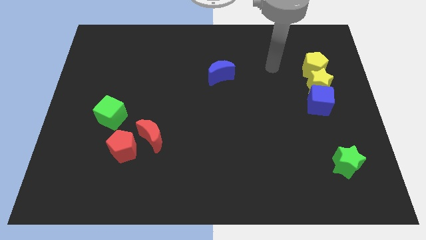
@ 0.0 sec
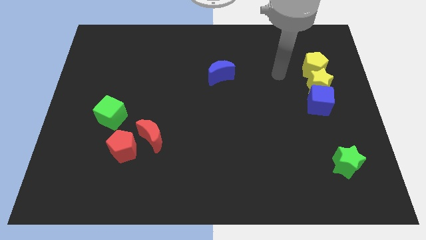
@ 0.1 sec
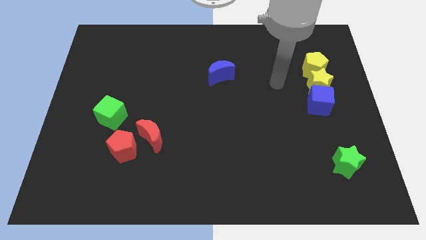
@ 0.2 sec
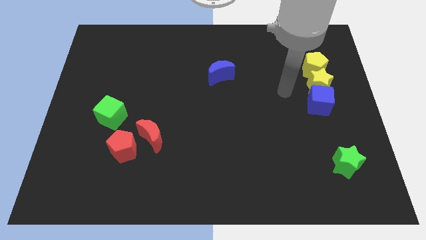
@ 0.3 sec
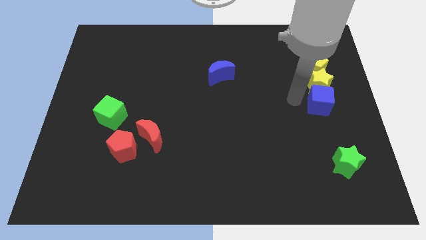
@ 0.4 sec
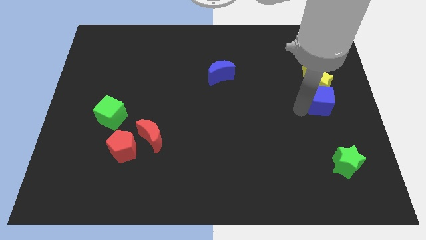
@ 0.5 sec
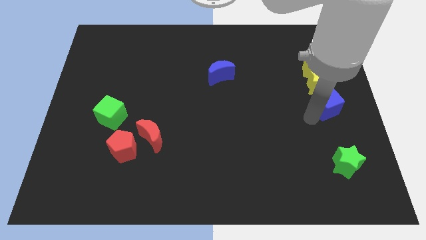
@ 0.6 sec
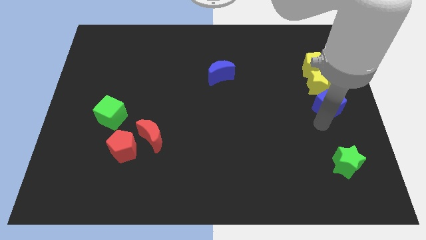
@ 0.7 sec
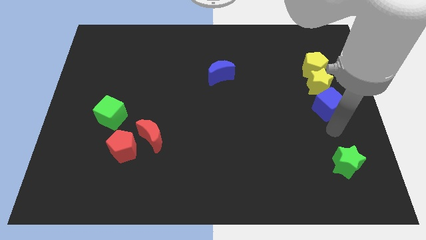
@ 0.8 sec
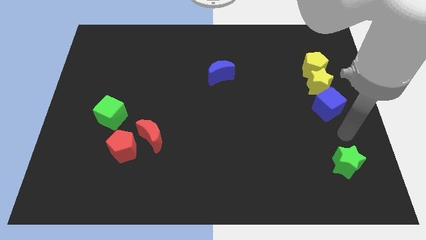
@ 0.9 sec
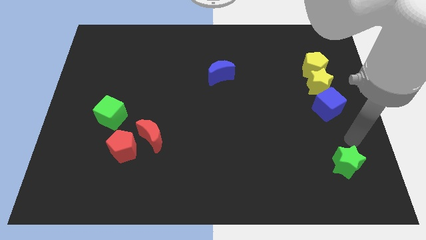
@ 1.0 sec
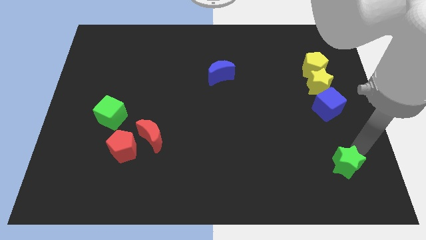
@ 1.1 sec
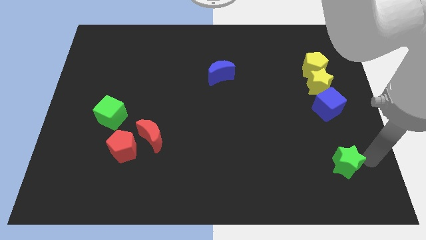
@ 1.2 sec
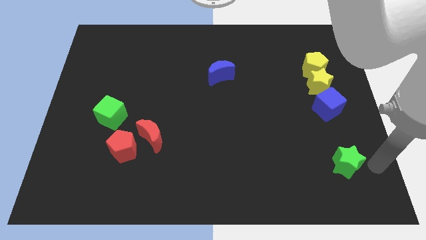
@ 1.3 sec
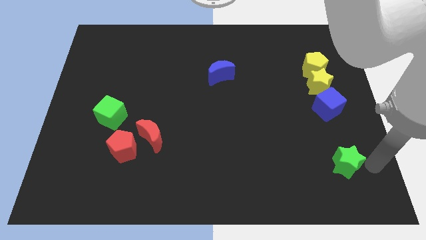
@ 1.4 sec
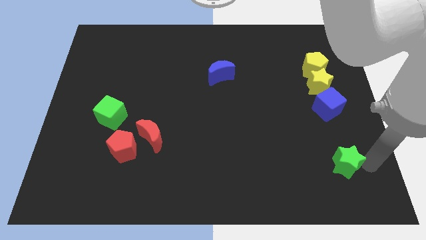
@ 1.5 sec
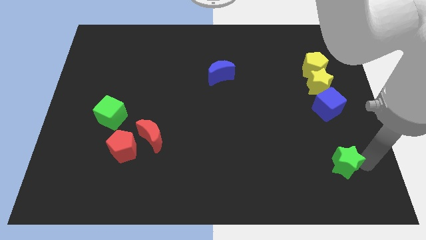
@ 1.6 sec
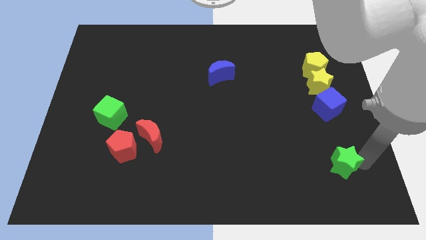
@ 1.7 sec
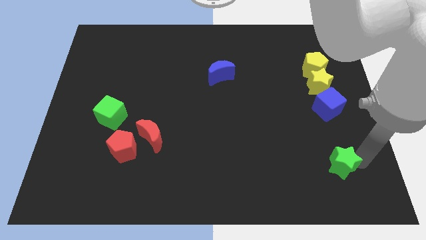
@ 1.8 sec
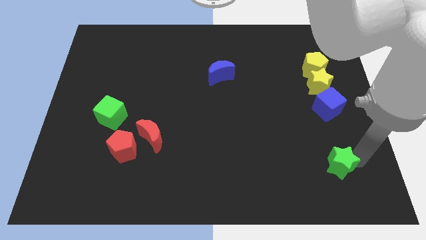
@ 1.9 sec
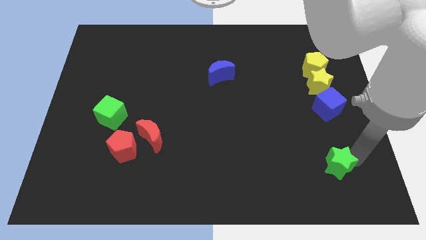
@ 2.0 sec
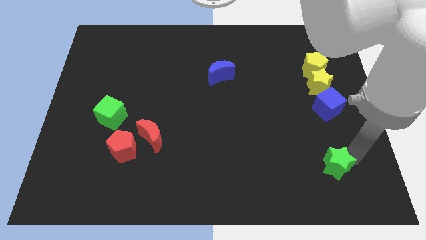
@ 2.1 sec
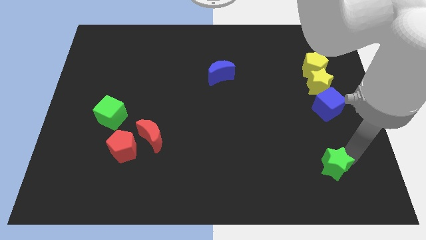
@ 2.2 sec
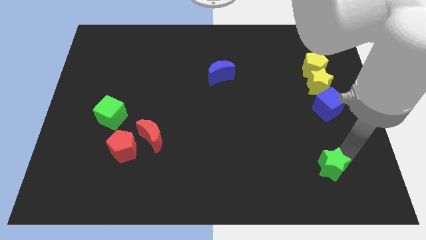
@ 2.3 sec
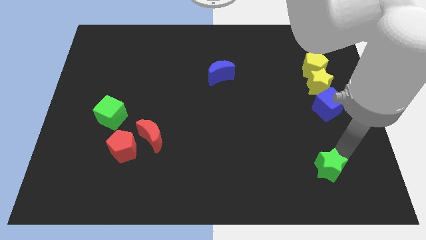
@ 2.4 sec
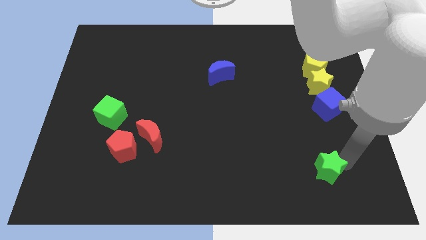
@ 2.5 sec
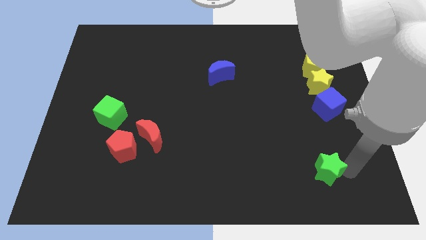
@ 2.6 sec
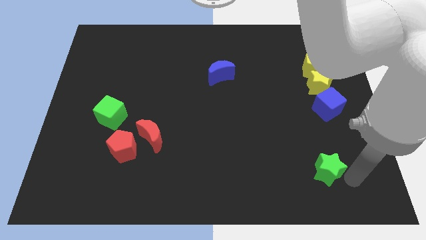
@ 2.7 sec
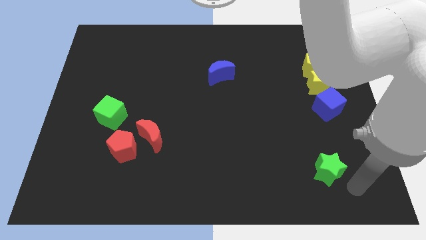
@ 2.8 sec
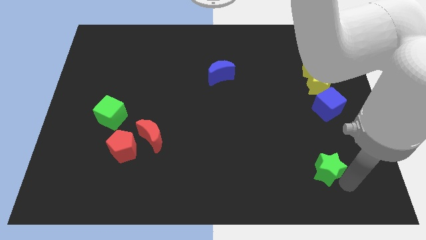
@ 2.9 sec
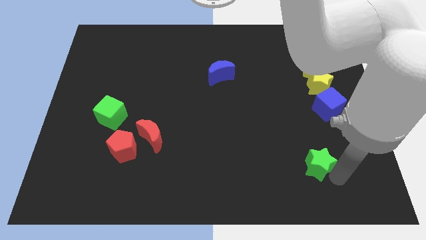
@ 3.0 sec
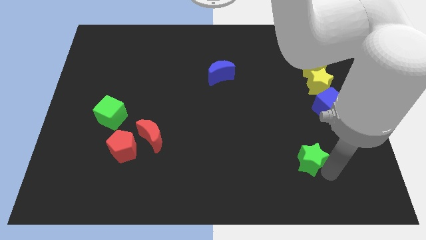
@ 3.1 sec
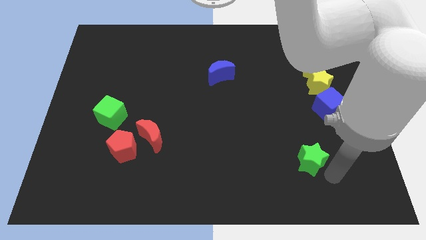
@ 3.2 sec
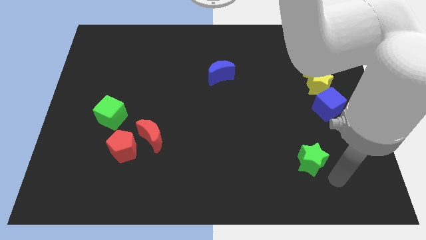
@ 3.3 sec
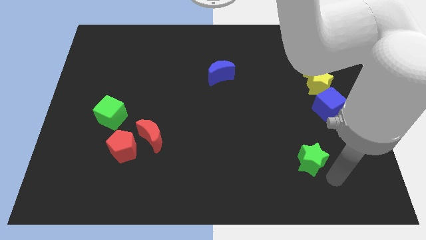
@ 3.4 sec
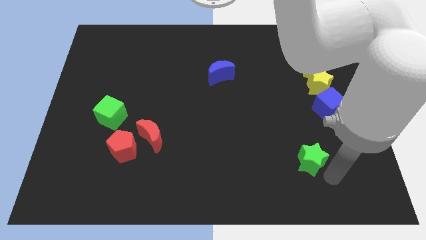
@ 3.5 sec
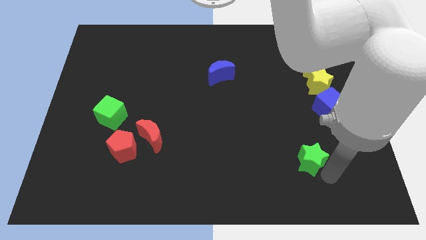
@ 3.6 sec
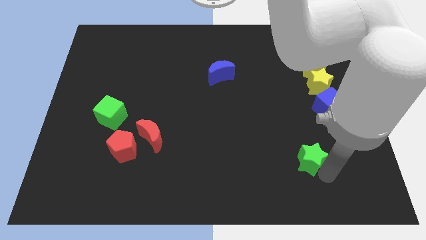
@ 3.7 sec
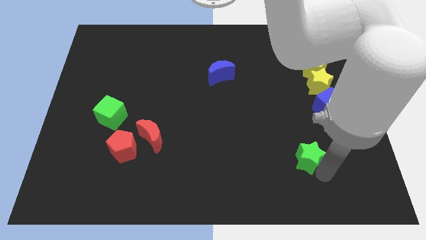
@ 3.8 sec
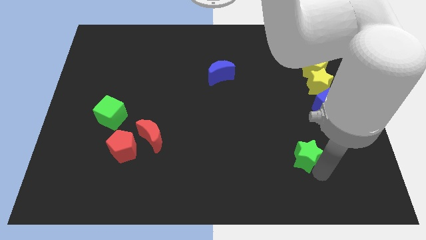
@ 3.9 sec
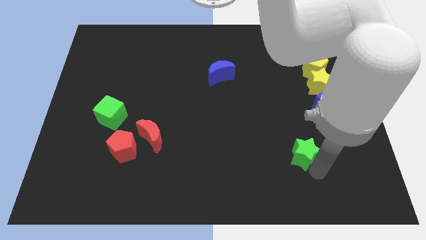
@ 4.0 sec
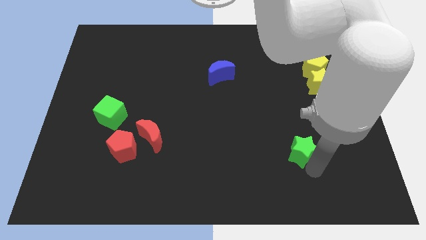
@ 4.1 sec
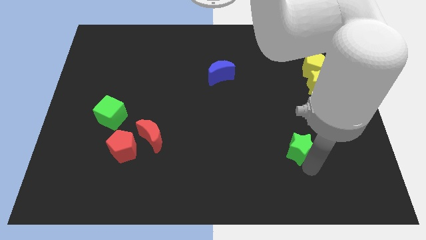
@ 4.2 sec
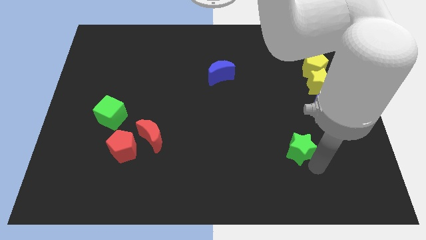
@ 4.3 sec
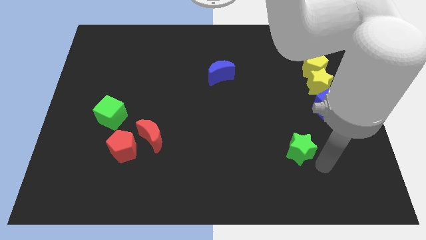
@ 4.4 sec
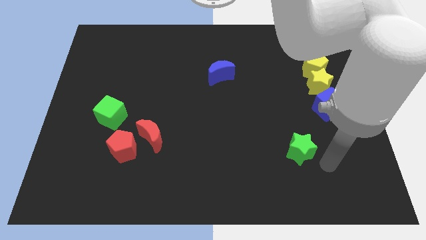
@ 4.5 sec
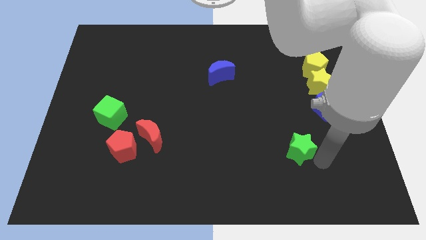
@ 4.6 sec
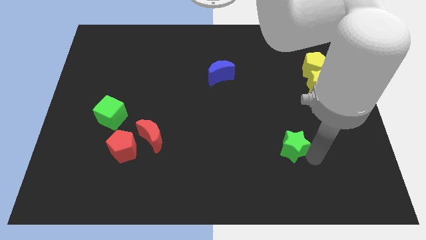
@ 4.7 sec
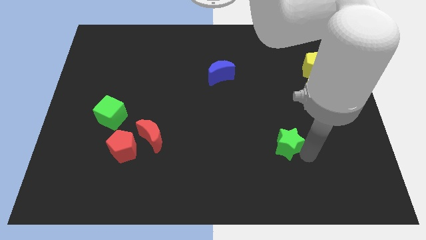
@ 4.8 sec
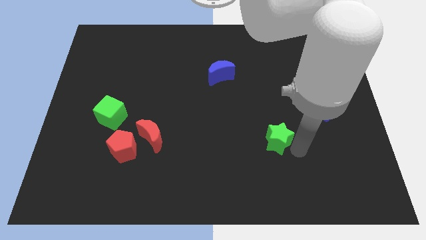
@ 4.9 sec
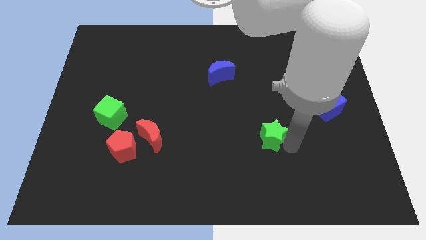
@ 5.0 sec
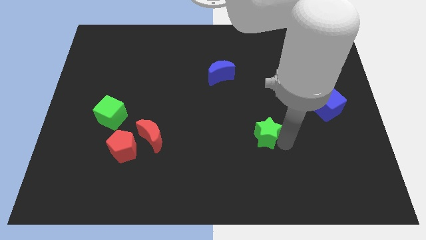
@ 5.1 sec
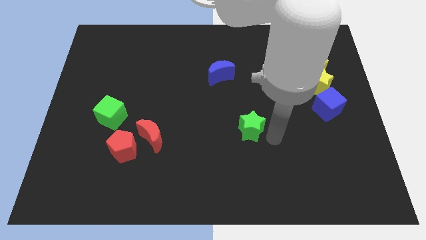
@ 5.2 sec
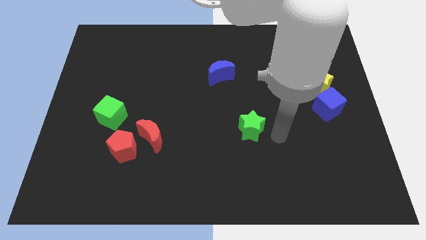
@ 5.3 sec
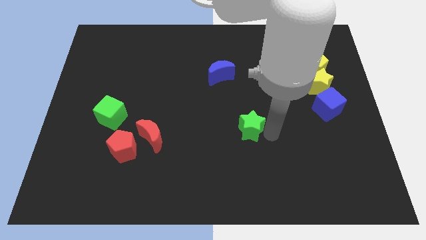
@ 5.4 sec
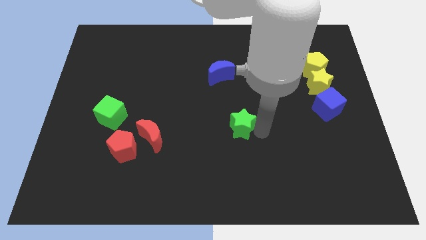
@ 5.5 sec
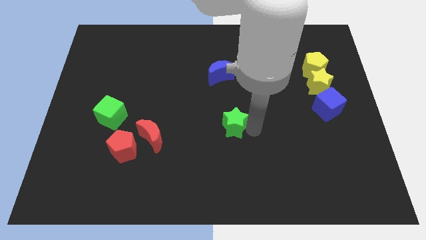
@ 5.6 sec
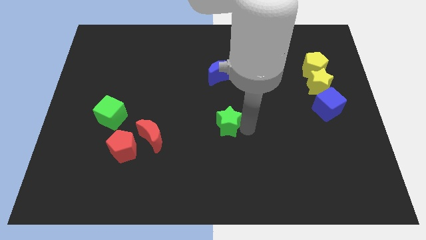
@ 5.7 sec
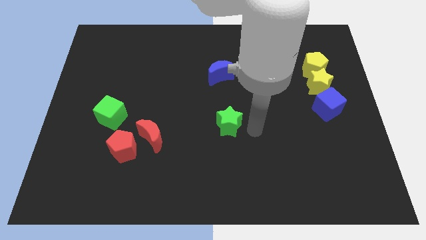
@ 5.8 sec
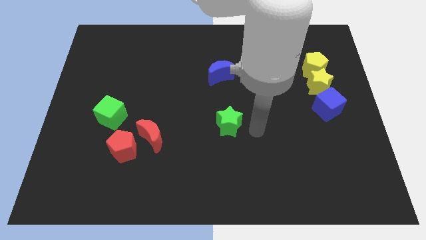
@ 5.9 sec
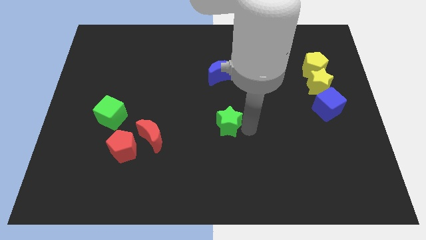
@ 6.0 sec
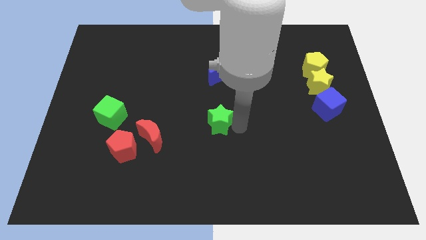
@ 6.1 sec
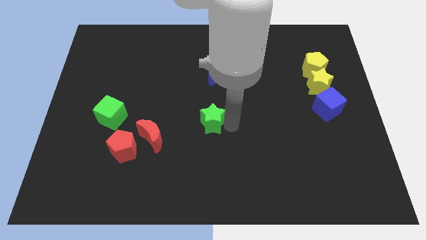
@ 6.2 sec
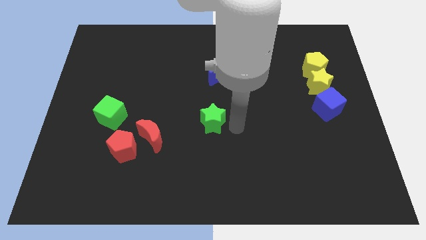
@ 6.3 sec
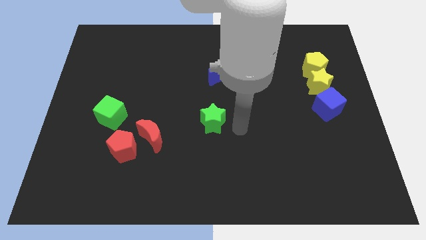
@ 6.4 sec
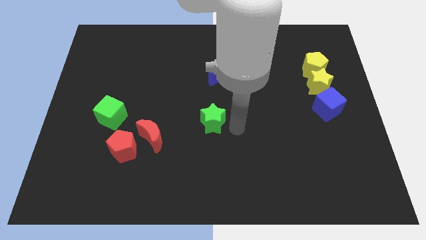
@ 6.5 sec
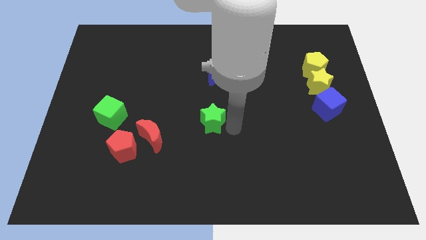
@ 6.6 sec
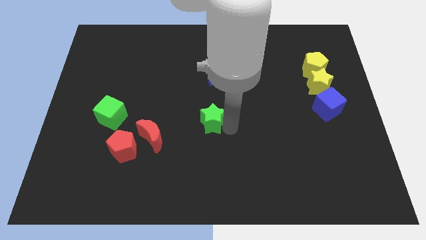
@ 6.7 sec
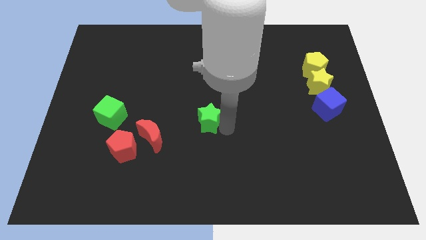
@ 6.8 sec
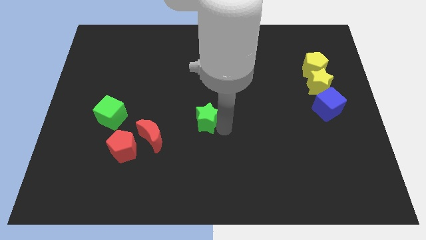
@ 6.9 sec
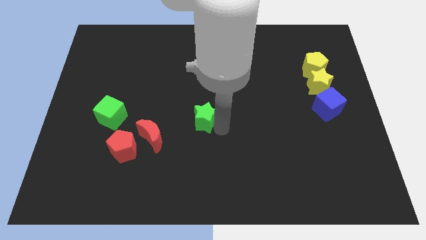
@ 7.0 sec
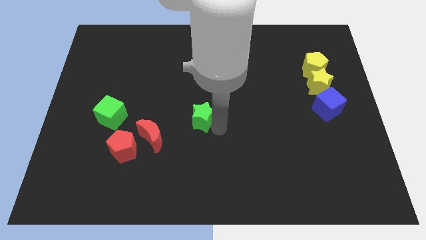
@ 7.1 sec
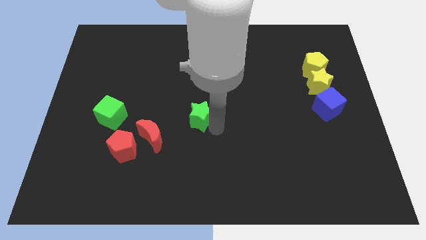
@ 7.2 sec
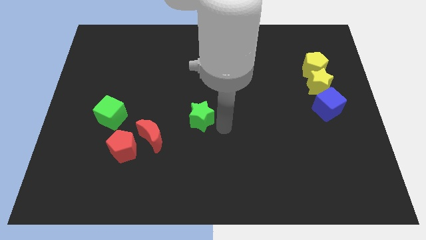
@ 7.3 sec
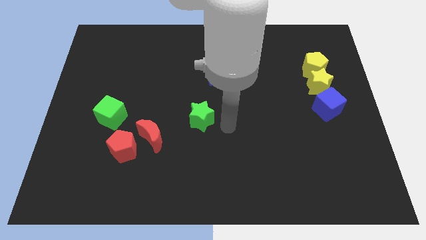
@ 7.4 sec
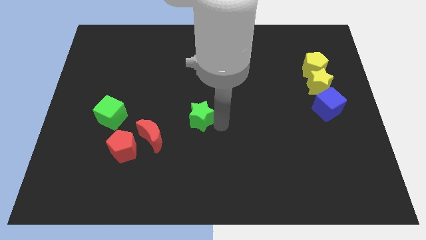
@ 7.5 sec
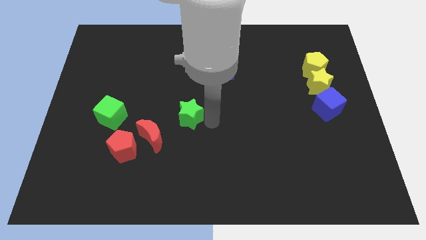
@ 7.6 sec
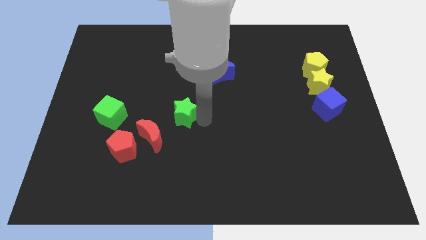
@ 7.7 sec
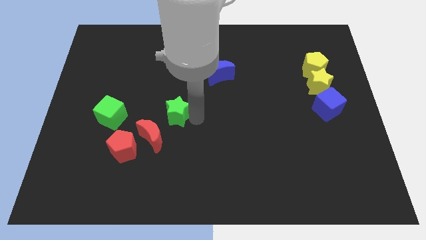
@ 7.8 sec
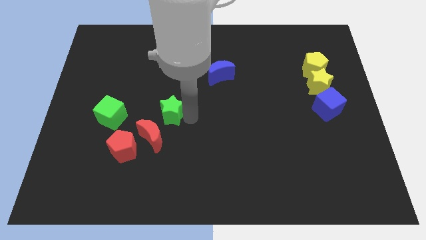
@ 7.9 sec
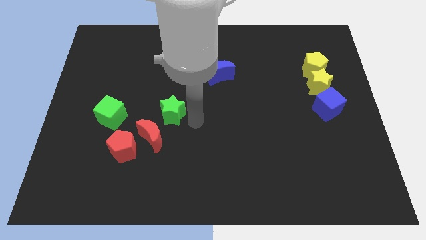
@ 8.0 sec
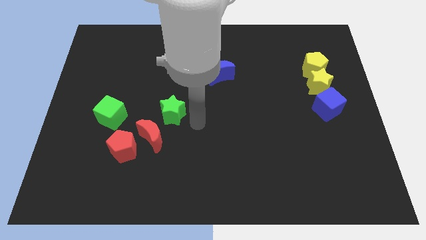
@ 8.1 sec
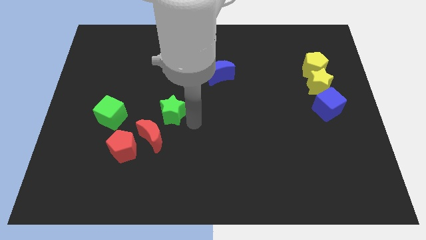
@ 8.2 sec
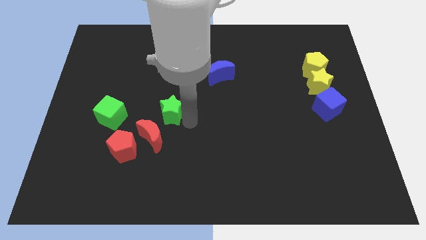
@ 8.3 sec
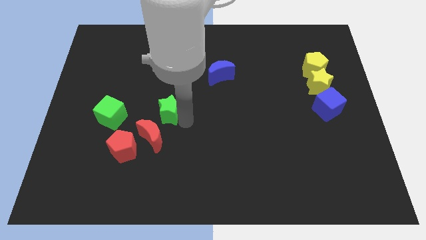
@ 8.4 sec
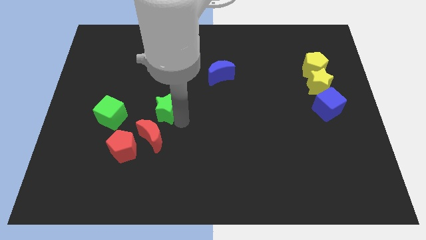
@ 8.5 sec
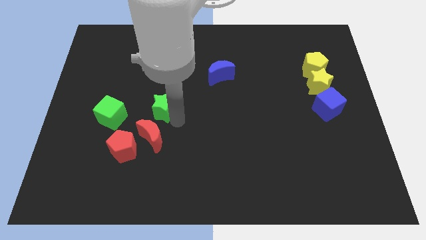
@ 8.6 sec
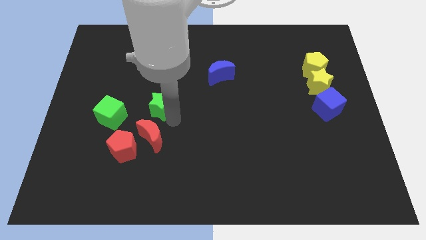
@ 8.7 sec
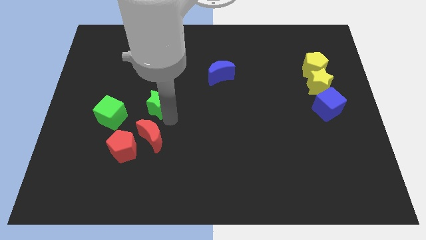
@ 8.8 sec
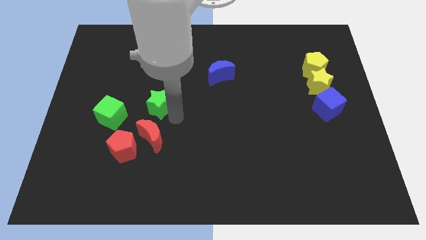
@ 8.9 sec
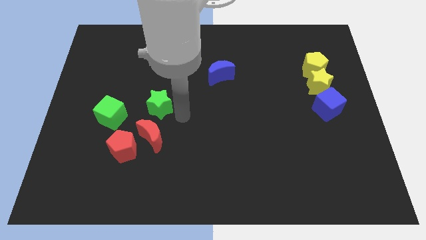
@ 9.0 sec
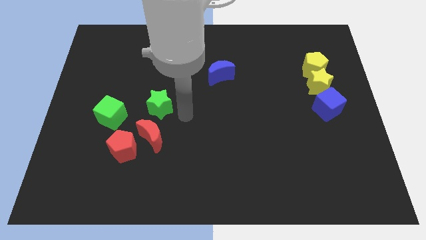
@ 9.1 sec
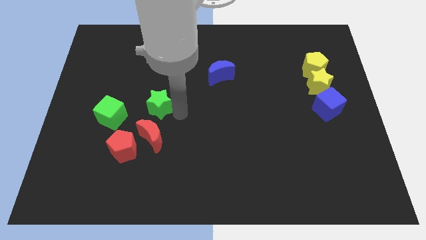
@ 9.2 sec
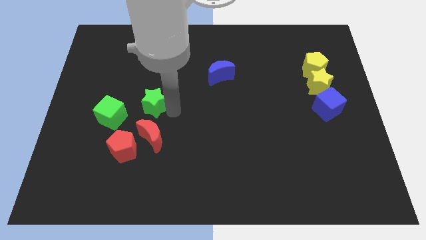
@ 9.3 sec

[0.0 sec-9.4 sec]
move the green star to the top right side of the green cube
